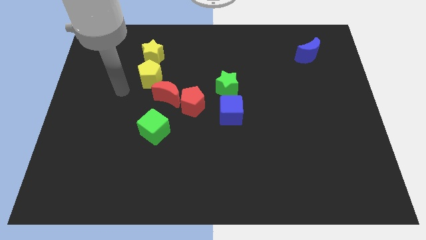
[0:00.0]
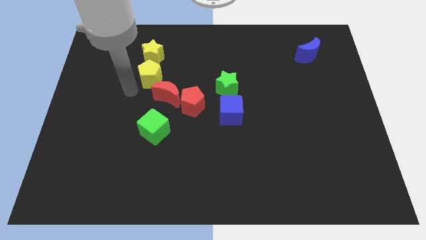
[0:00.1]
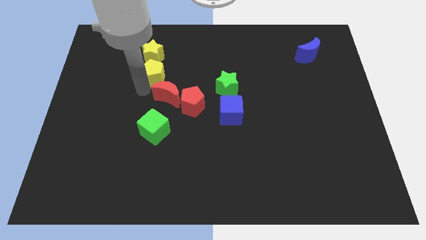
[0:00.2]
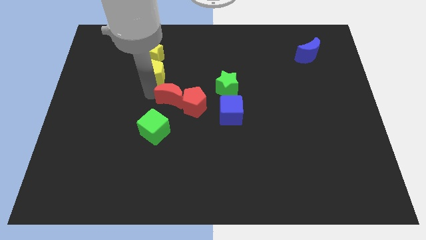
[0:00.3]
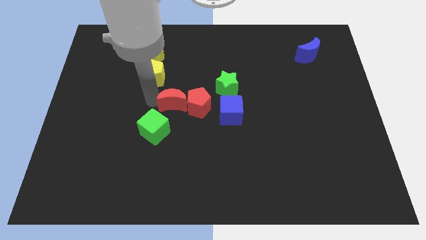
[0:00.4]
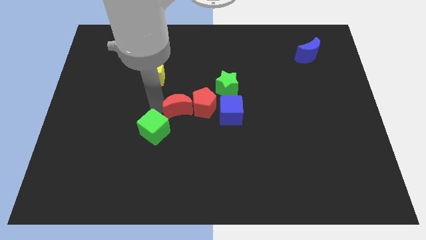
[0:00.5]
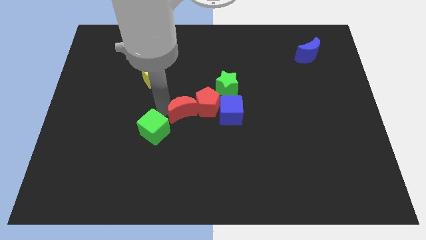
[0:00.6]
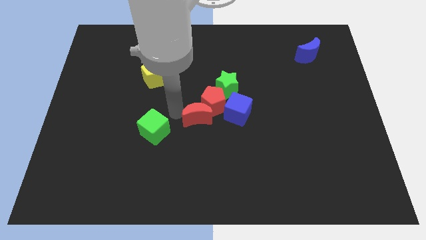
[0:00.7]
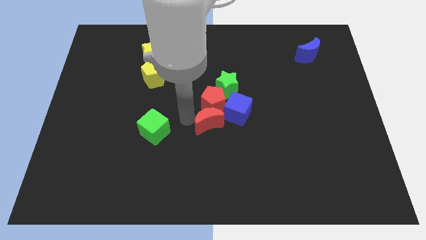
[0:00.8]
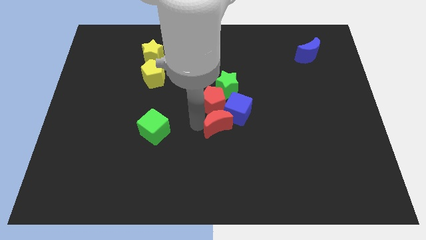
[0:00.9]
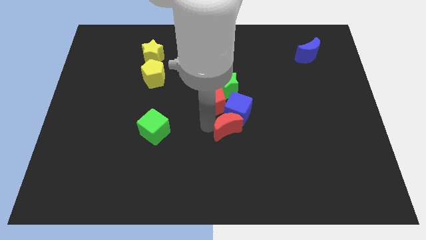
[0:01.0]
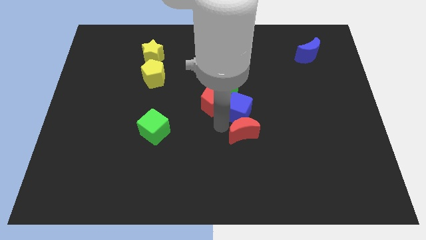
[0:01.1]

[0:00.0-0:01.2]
move the yellow pentagon away from the red moon and yellow star

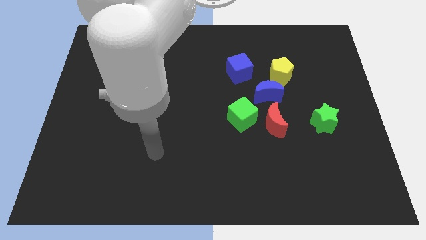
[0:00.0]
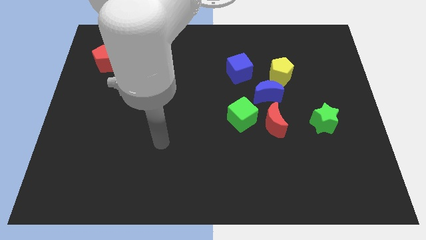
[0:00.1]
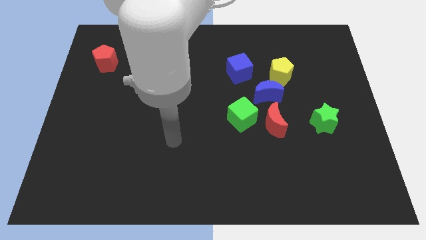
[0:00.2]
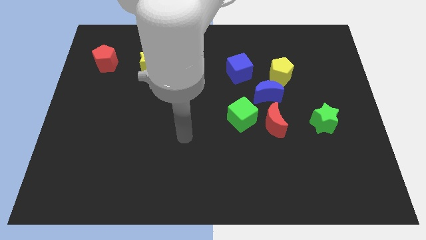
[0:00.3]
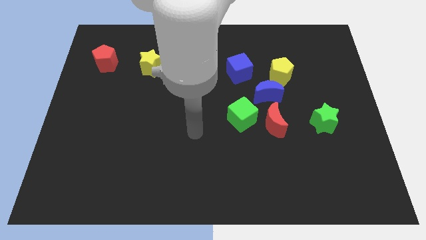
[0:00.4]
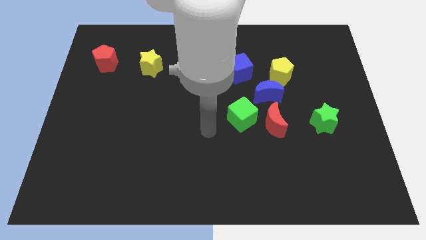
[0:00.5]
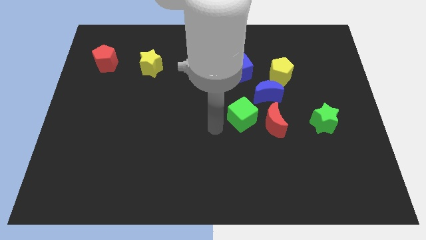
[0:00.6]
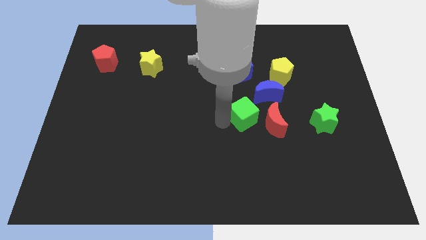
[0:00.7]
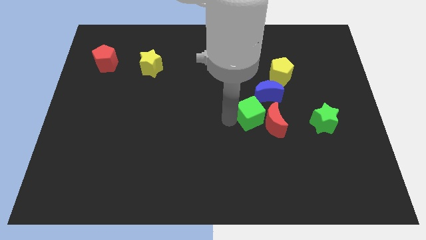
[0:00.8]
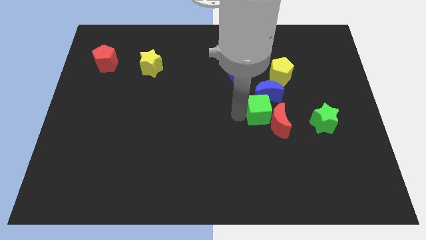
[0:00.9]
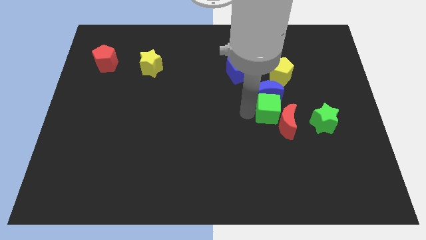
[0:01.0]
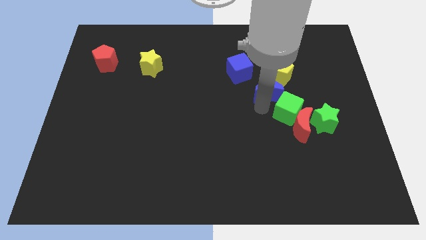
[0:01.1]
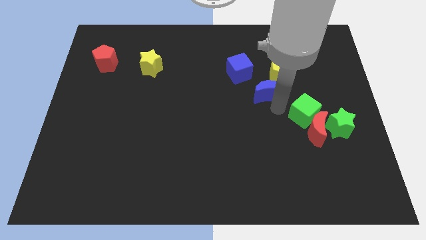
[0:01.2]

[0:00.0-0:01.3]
separate the red moon from the green cube and blue moon

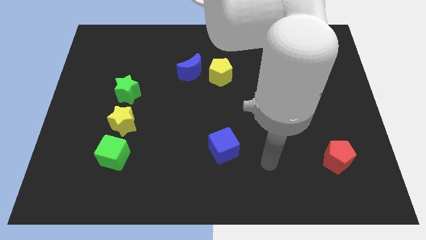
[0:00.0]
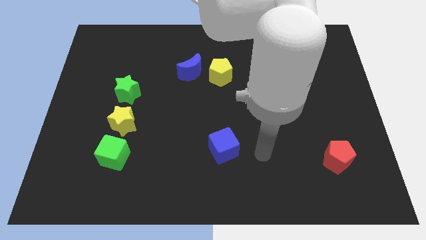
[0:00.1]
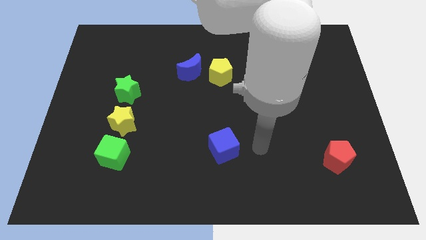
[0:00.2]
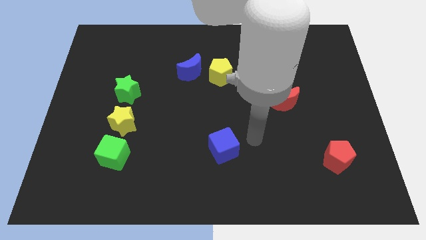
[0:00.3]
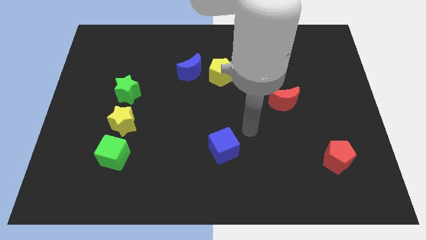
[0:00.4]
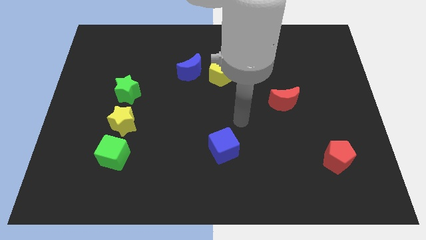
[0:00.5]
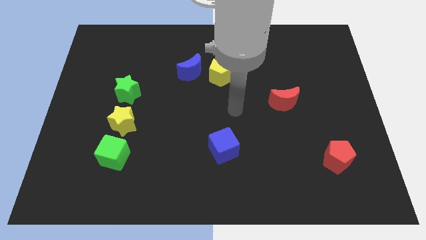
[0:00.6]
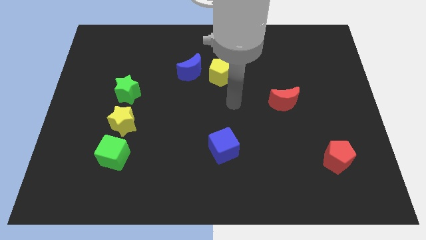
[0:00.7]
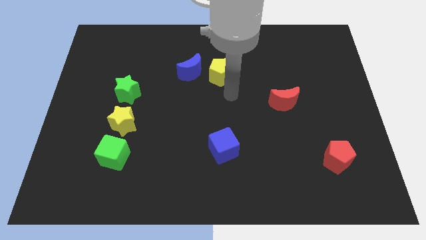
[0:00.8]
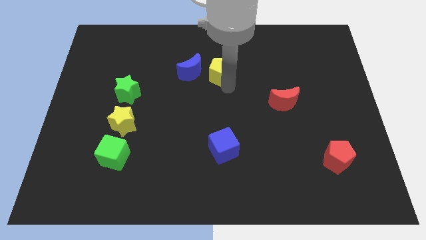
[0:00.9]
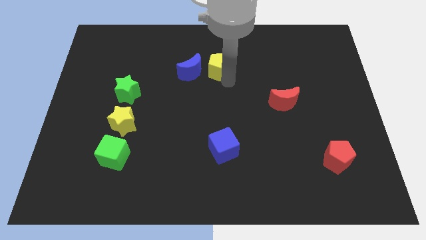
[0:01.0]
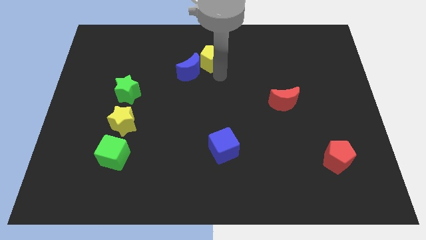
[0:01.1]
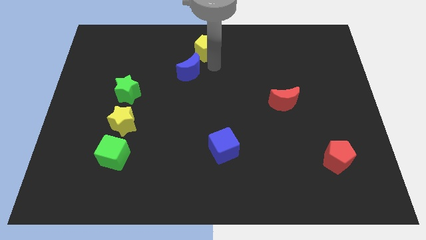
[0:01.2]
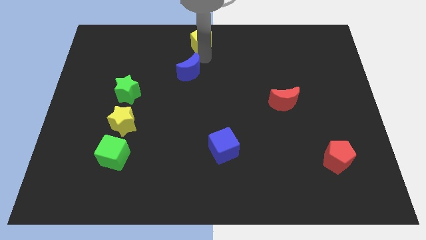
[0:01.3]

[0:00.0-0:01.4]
move the blue moon away from the yellow pentagon

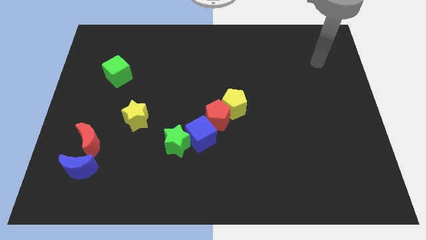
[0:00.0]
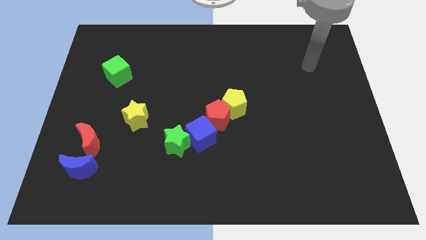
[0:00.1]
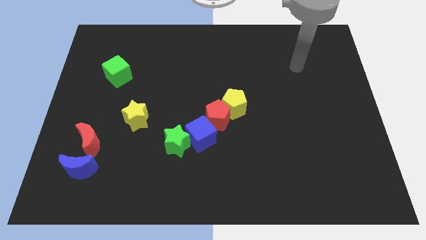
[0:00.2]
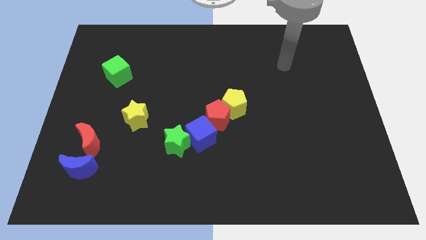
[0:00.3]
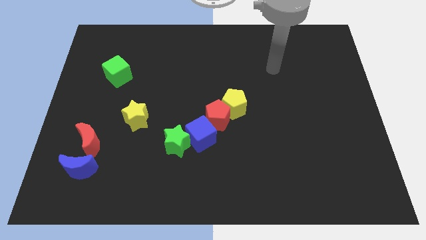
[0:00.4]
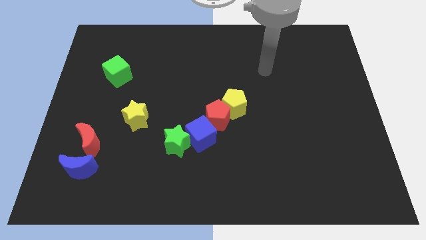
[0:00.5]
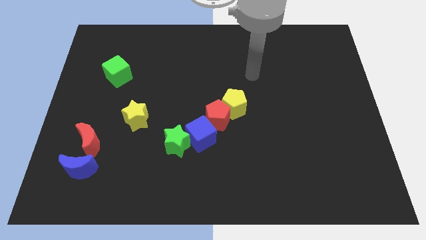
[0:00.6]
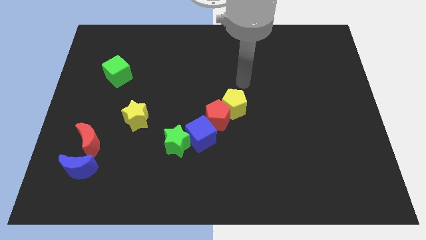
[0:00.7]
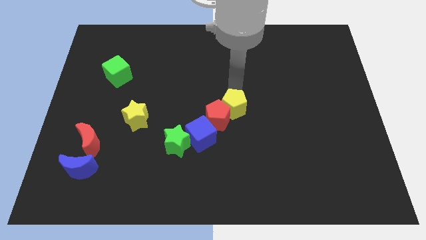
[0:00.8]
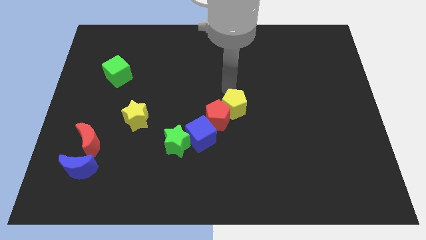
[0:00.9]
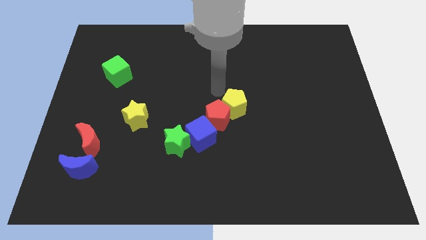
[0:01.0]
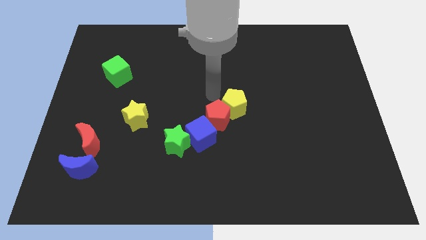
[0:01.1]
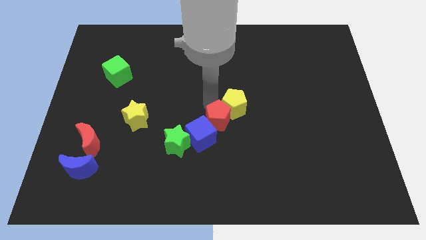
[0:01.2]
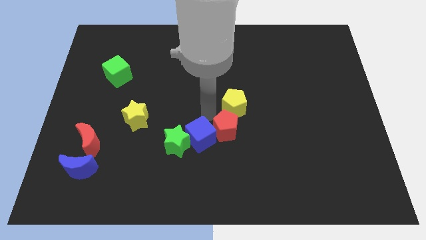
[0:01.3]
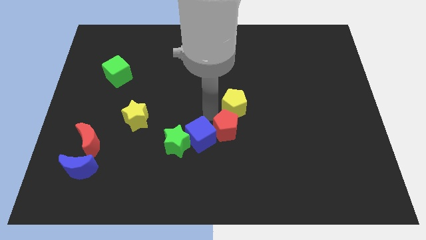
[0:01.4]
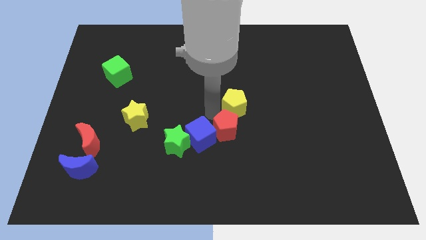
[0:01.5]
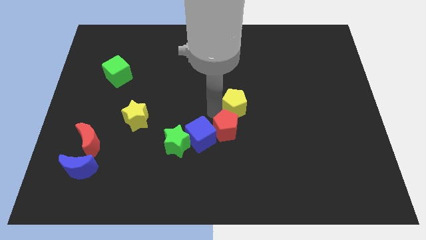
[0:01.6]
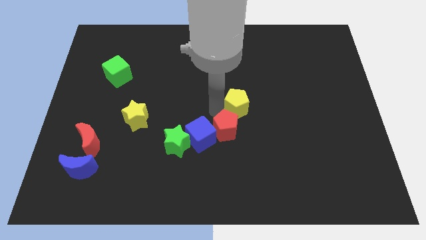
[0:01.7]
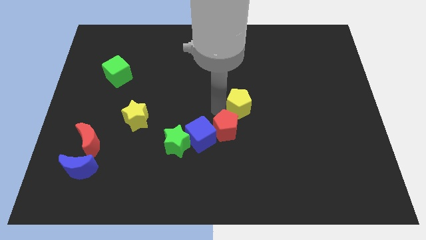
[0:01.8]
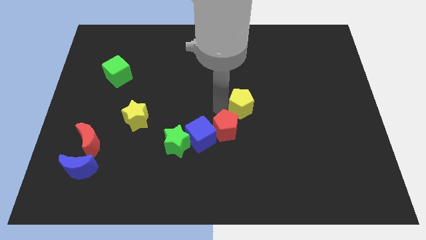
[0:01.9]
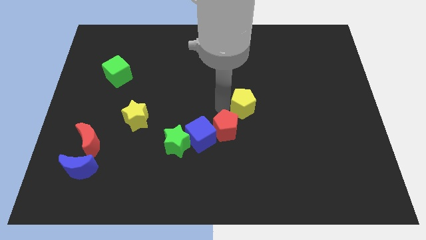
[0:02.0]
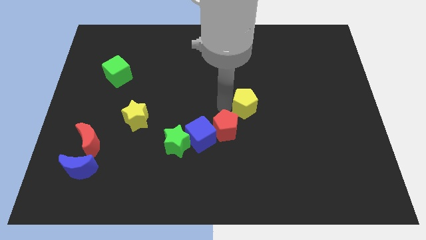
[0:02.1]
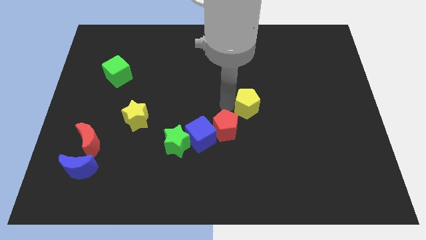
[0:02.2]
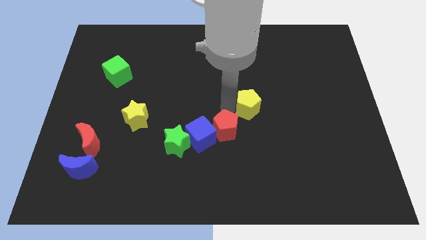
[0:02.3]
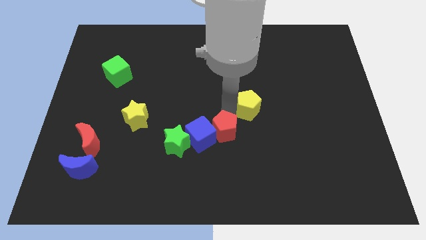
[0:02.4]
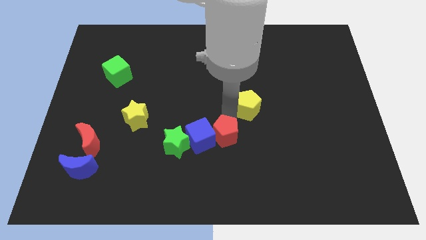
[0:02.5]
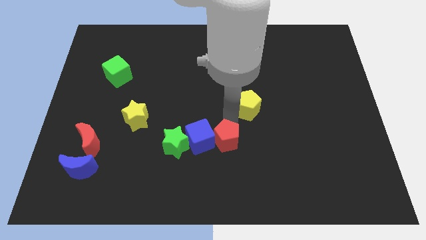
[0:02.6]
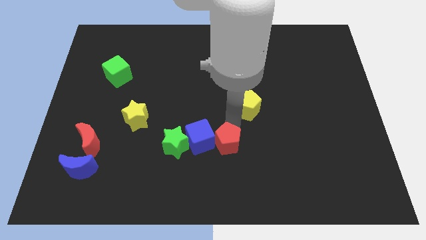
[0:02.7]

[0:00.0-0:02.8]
move the yellow pentagon away from the red pentagon

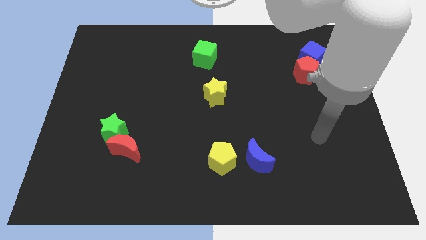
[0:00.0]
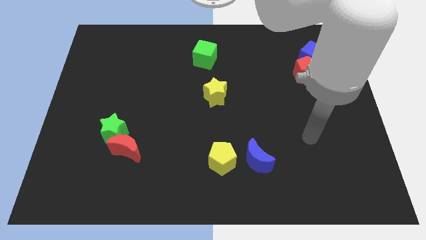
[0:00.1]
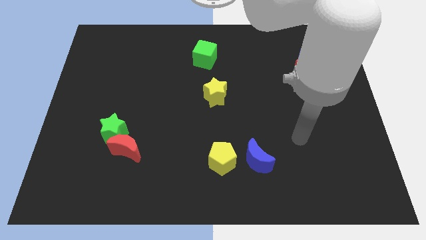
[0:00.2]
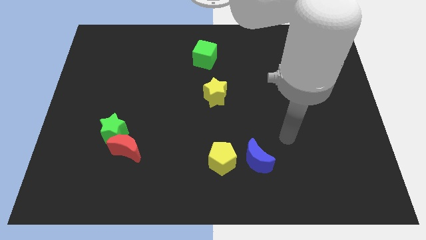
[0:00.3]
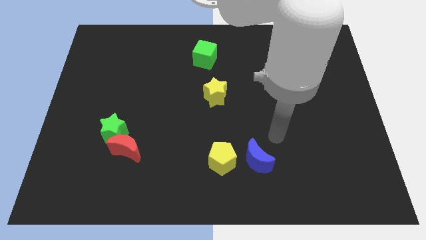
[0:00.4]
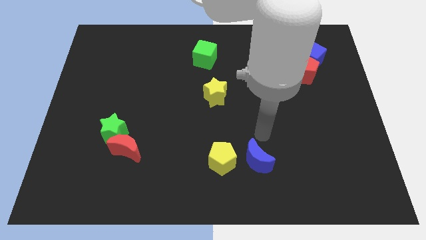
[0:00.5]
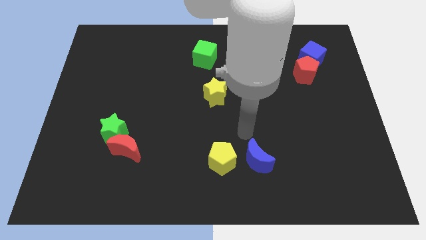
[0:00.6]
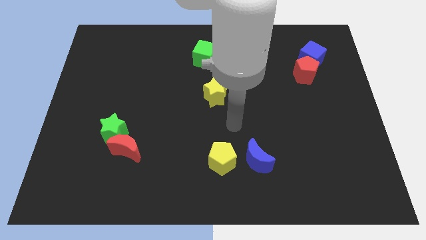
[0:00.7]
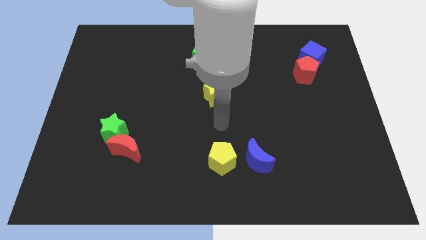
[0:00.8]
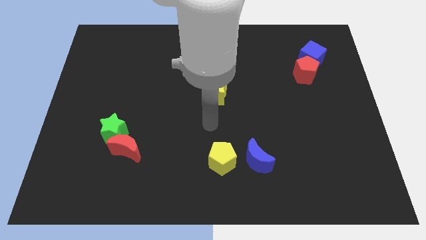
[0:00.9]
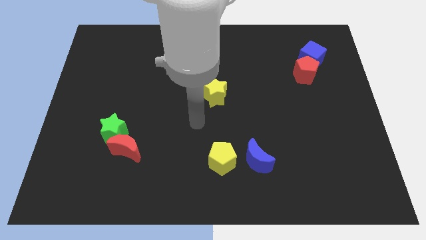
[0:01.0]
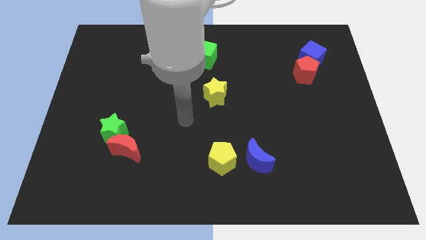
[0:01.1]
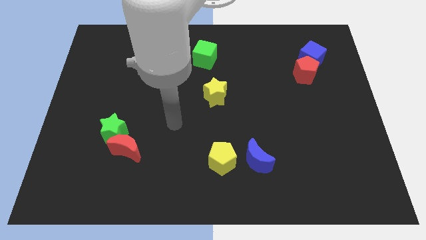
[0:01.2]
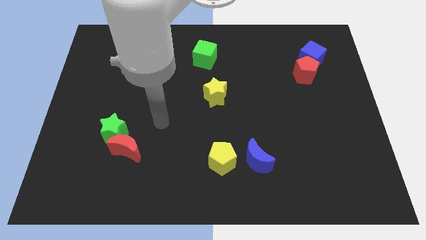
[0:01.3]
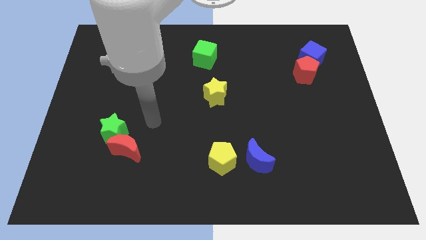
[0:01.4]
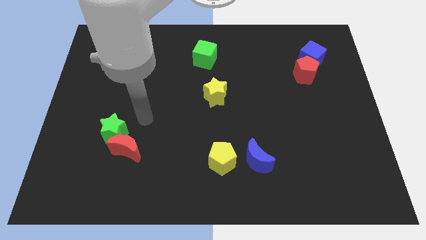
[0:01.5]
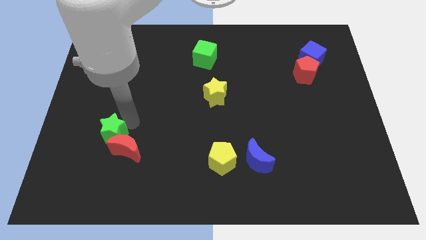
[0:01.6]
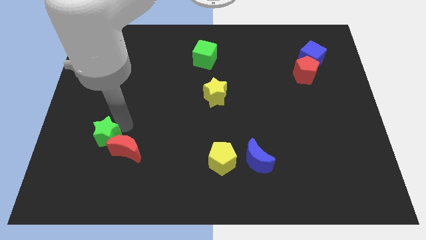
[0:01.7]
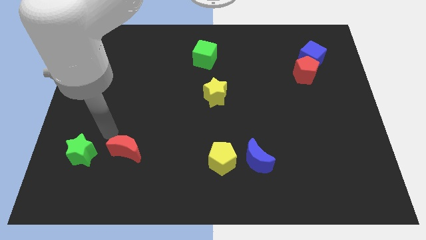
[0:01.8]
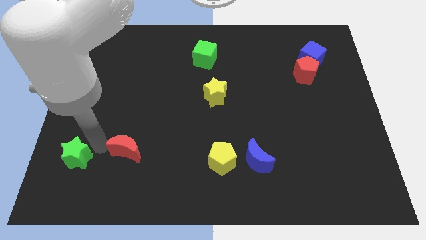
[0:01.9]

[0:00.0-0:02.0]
move the red moon away from the green star

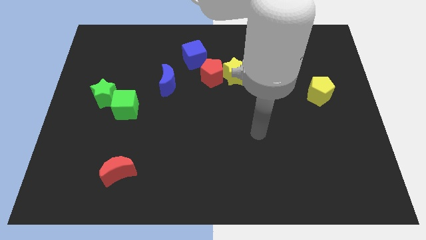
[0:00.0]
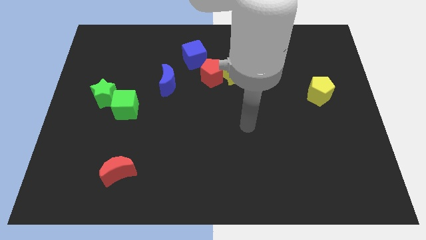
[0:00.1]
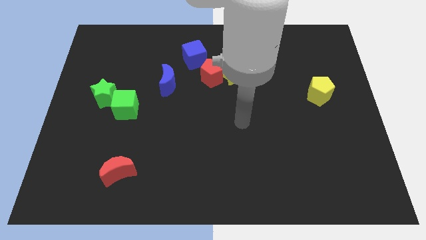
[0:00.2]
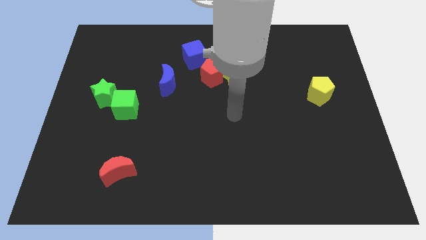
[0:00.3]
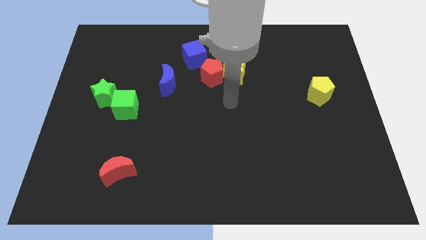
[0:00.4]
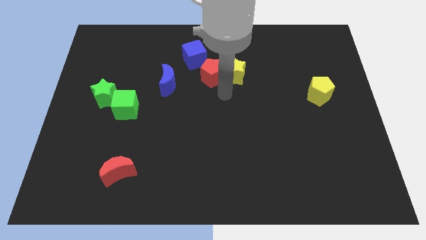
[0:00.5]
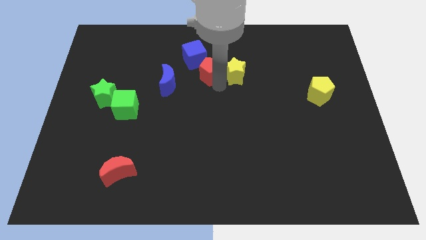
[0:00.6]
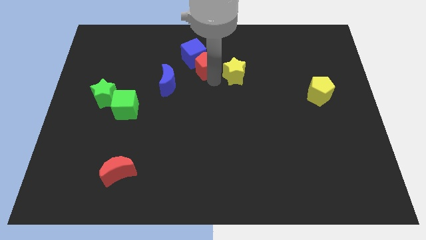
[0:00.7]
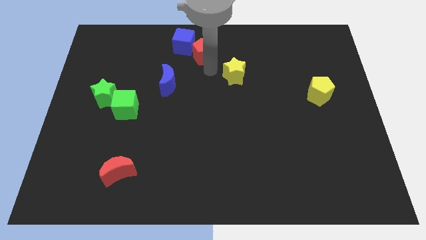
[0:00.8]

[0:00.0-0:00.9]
move the yellow star away from the red pentagon
